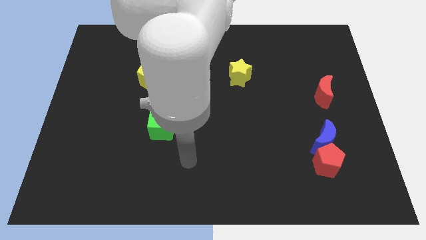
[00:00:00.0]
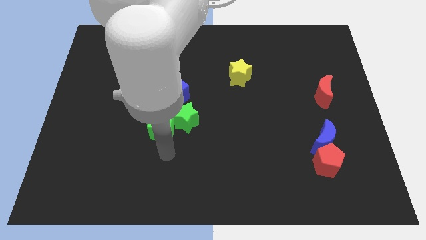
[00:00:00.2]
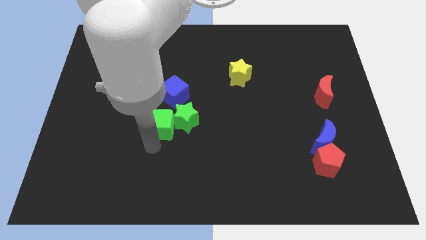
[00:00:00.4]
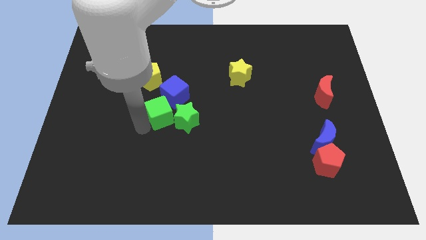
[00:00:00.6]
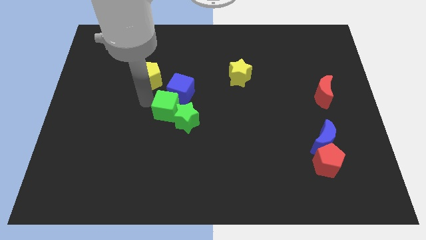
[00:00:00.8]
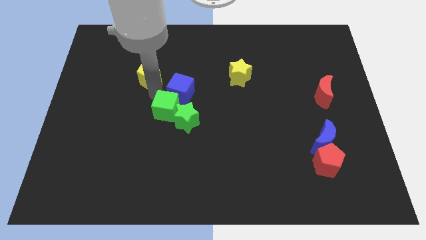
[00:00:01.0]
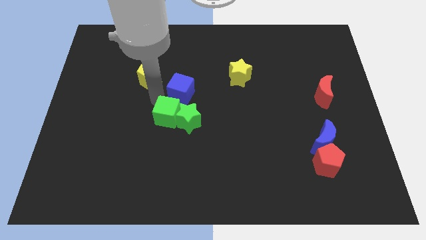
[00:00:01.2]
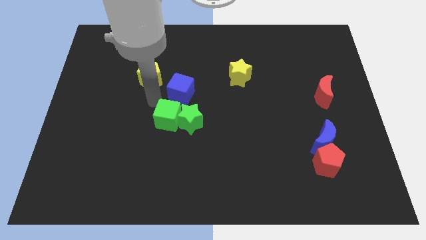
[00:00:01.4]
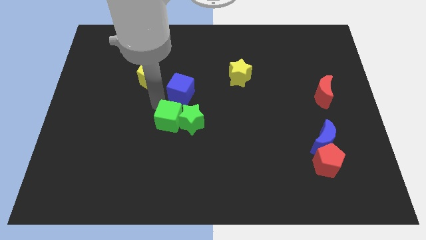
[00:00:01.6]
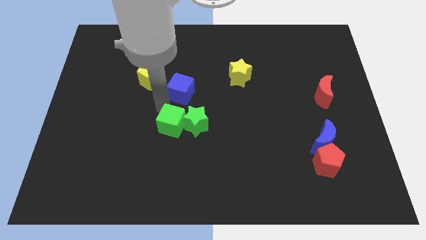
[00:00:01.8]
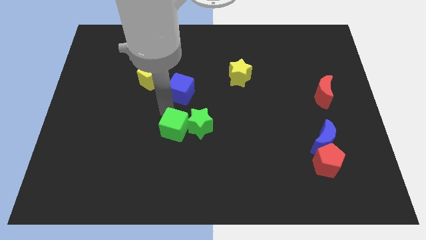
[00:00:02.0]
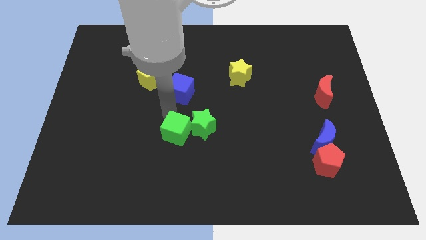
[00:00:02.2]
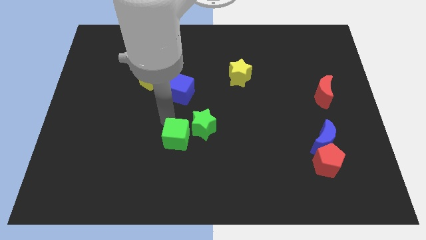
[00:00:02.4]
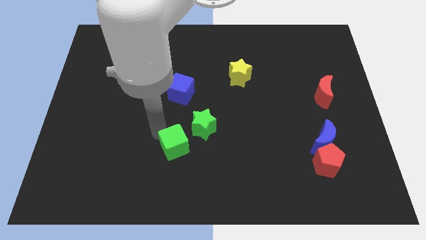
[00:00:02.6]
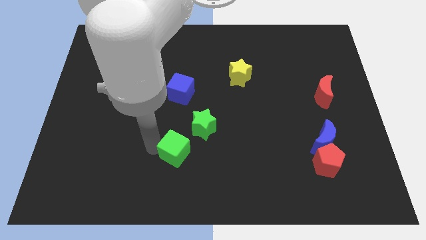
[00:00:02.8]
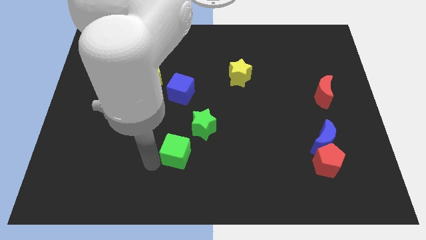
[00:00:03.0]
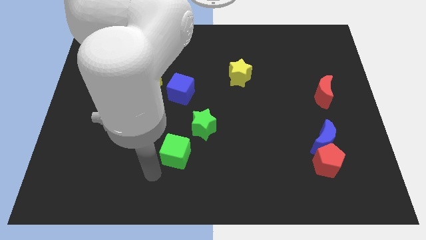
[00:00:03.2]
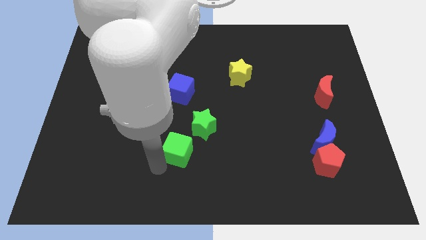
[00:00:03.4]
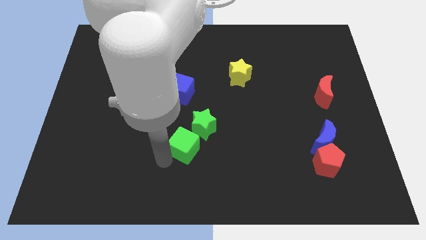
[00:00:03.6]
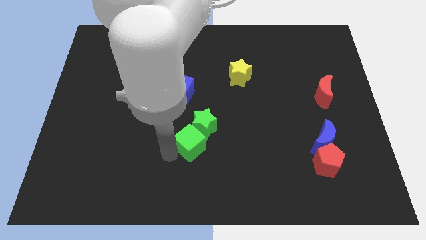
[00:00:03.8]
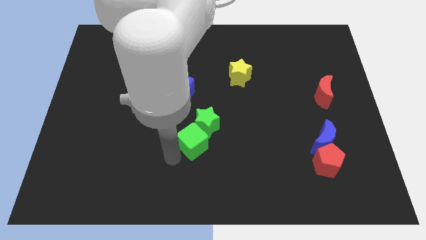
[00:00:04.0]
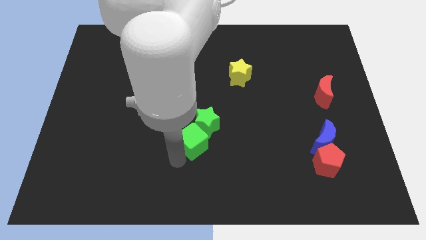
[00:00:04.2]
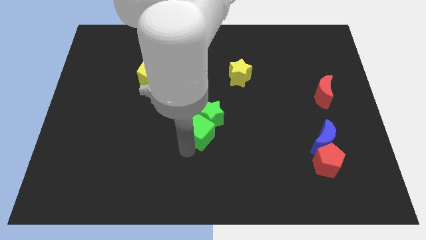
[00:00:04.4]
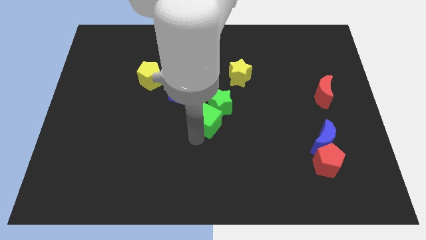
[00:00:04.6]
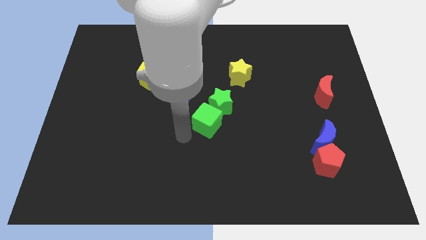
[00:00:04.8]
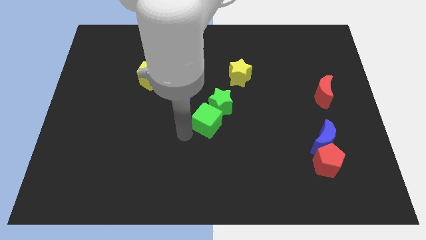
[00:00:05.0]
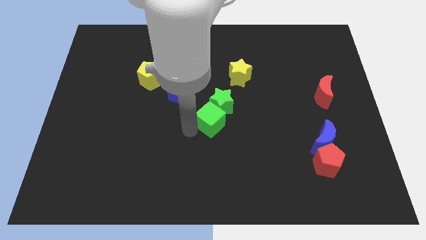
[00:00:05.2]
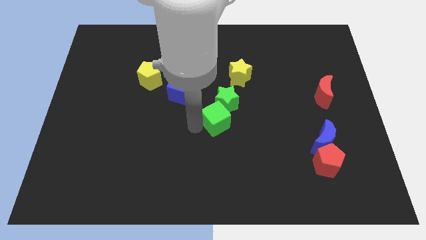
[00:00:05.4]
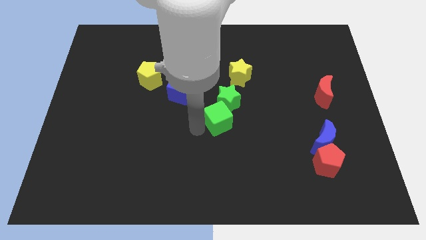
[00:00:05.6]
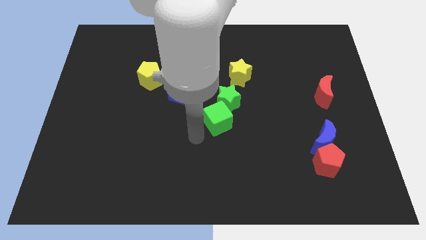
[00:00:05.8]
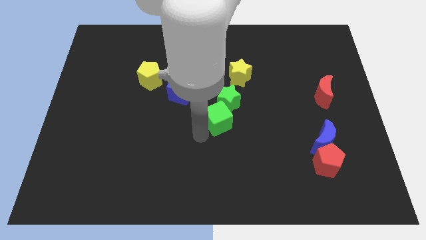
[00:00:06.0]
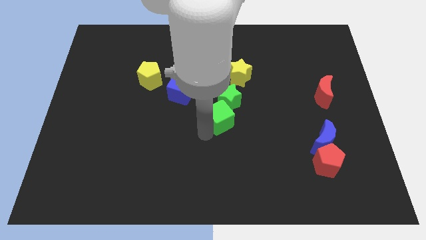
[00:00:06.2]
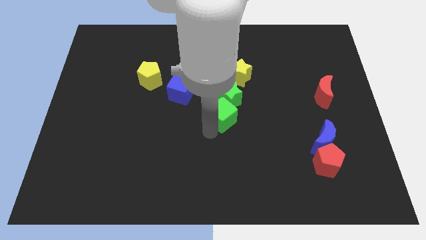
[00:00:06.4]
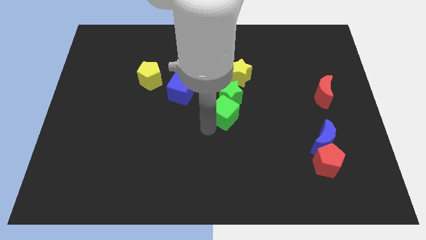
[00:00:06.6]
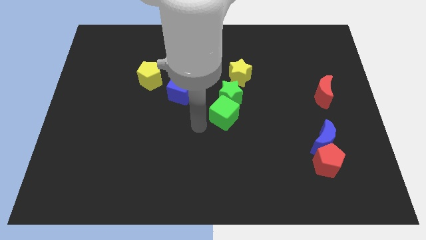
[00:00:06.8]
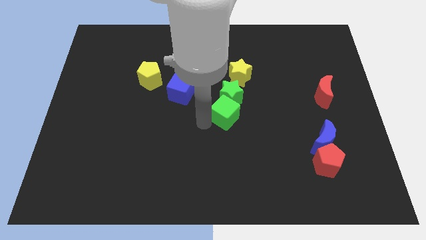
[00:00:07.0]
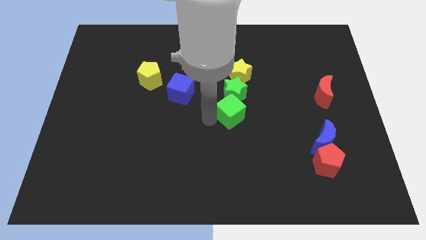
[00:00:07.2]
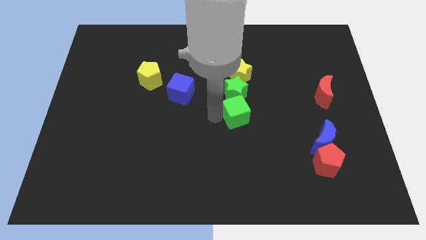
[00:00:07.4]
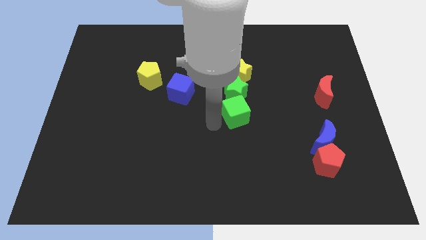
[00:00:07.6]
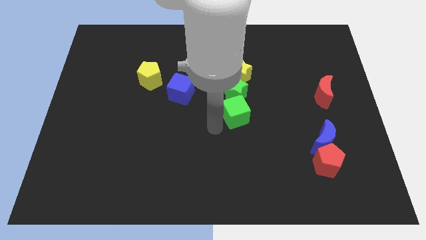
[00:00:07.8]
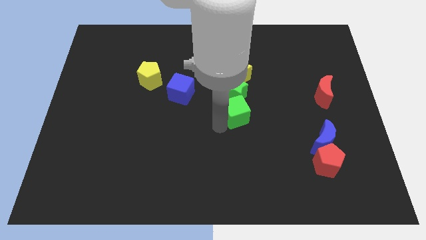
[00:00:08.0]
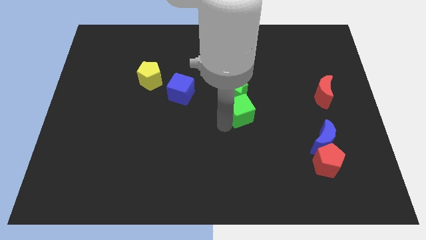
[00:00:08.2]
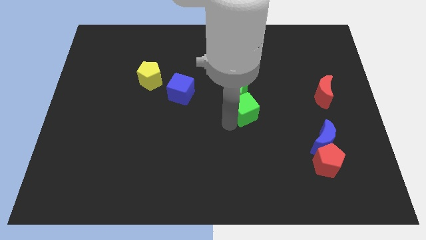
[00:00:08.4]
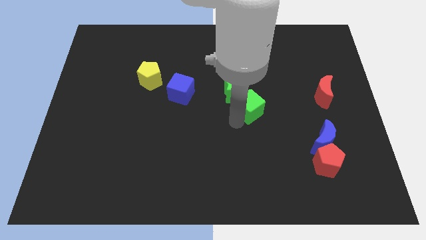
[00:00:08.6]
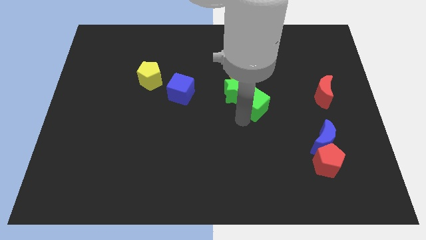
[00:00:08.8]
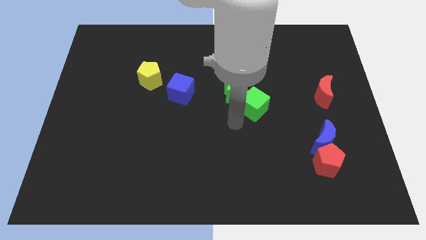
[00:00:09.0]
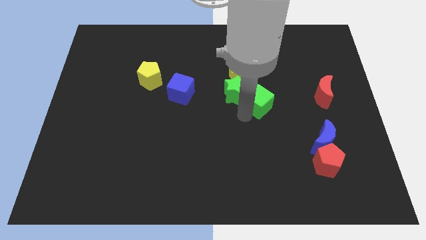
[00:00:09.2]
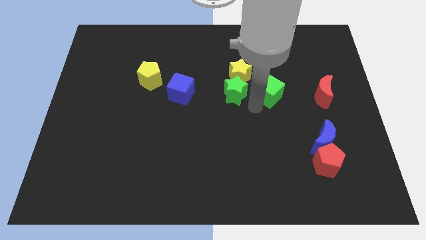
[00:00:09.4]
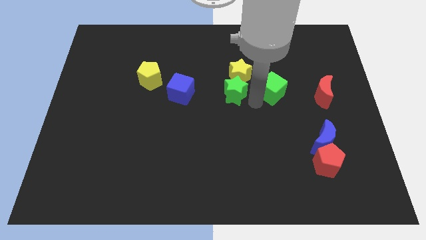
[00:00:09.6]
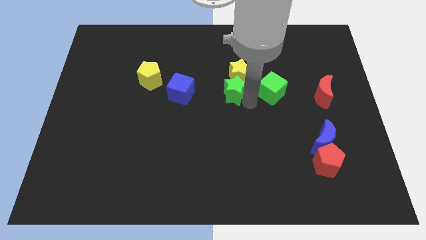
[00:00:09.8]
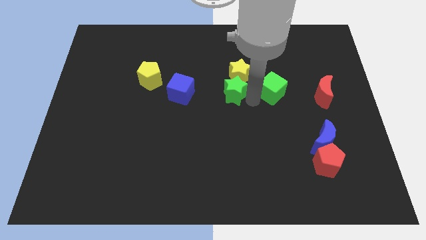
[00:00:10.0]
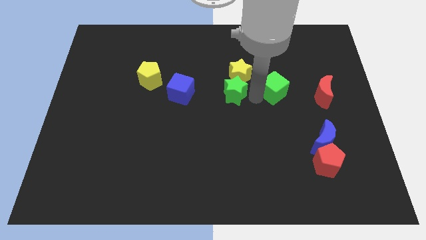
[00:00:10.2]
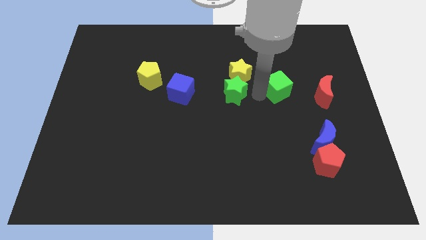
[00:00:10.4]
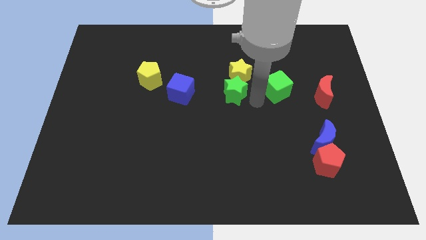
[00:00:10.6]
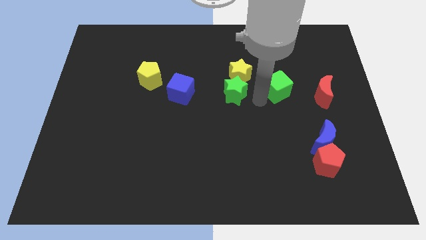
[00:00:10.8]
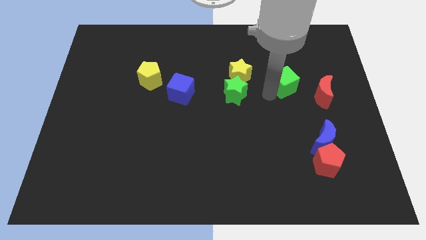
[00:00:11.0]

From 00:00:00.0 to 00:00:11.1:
push the green cube to the top left side of the red moon

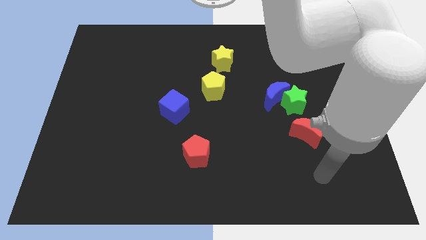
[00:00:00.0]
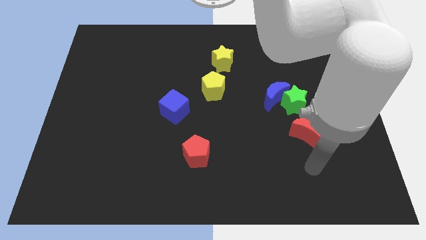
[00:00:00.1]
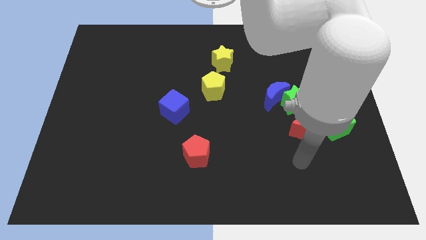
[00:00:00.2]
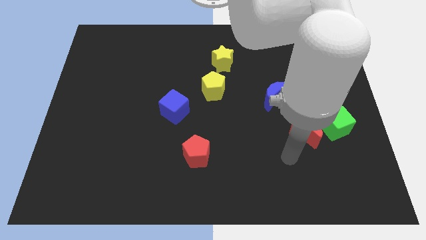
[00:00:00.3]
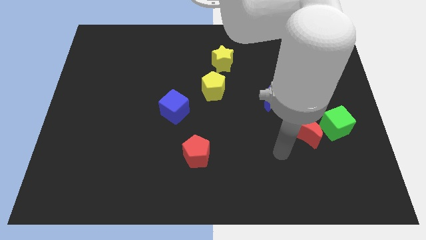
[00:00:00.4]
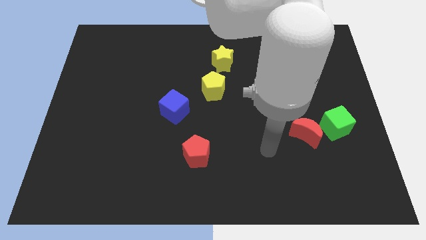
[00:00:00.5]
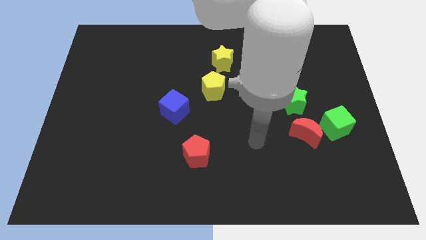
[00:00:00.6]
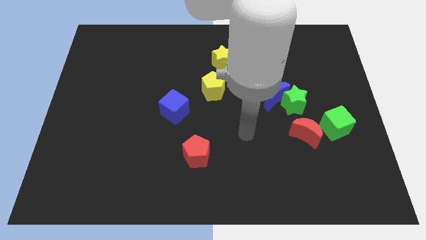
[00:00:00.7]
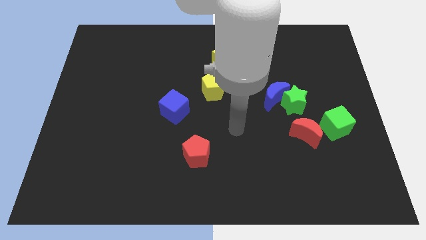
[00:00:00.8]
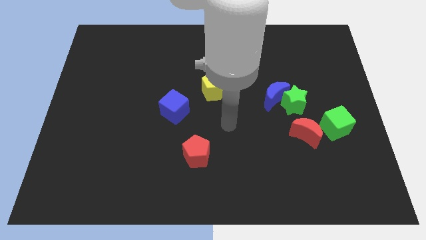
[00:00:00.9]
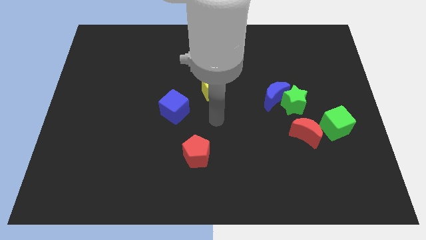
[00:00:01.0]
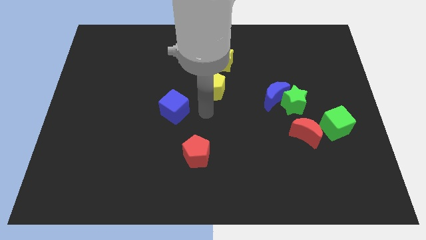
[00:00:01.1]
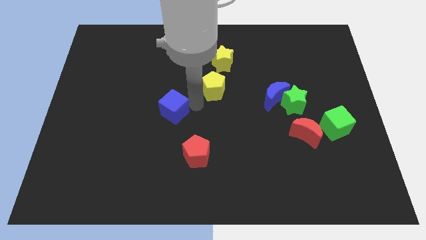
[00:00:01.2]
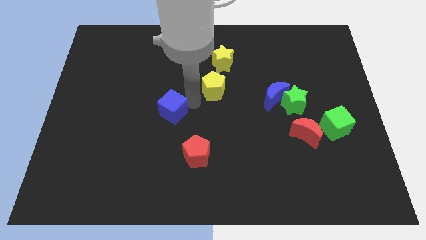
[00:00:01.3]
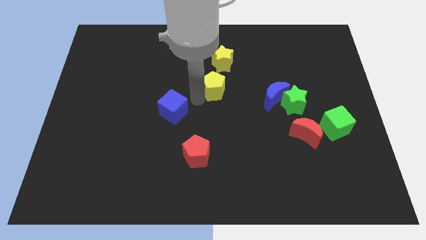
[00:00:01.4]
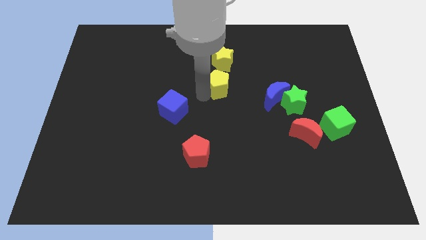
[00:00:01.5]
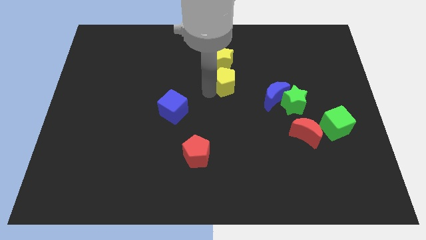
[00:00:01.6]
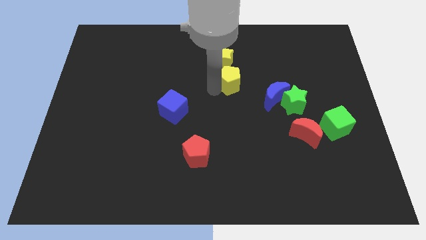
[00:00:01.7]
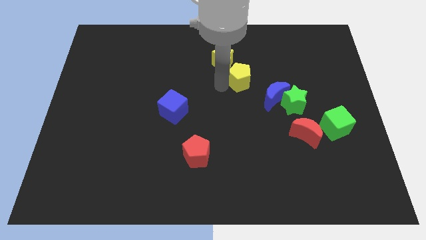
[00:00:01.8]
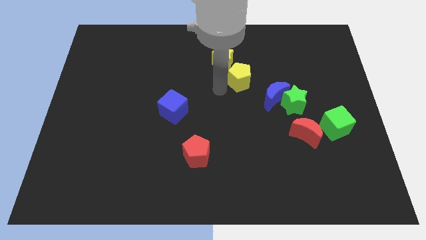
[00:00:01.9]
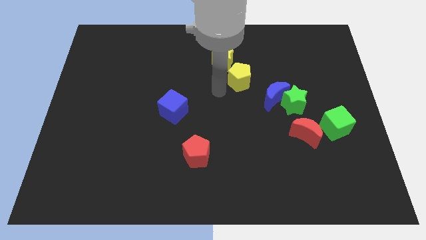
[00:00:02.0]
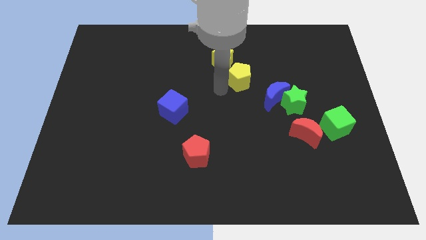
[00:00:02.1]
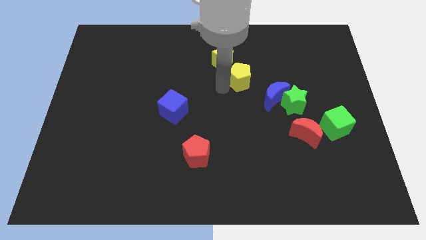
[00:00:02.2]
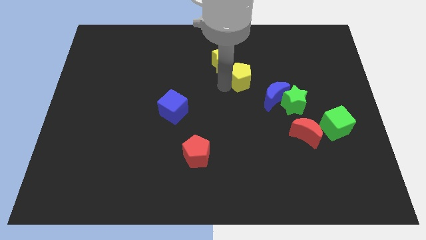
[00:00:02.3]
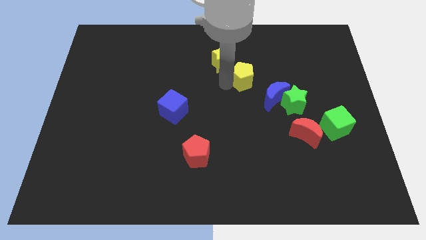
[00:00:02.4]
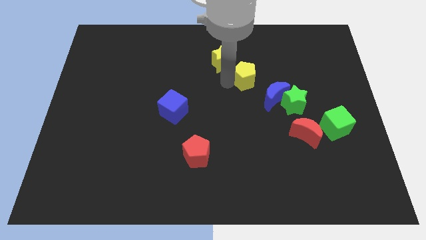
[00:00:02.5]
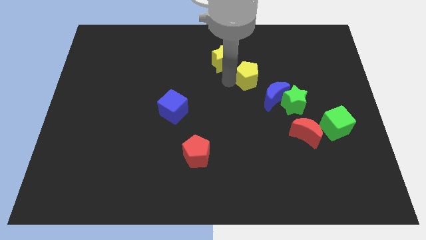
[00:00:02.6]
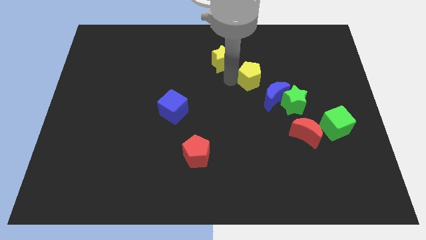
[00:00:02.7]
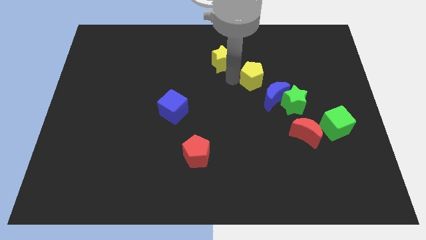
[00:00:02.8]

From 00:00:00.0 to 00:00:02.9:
push the yellow pentagon to the top side of the blue moon
